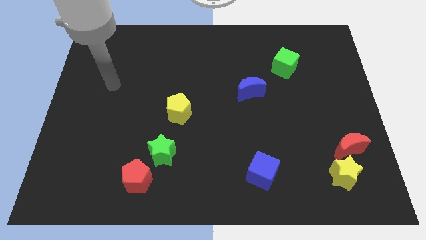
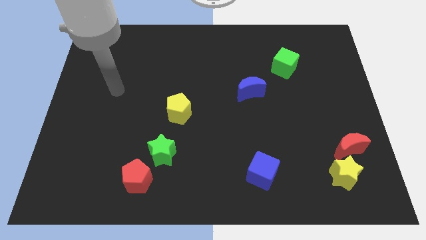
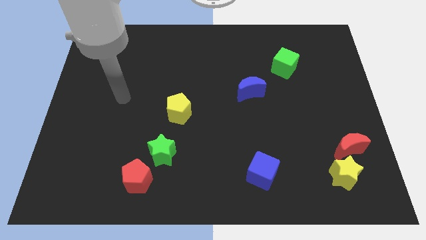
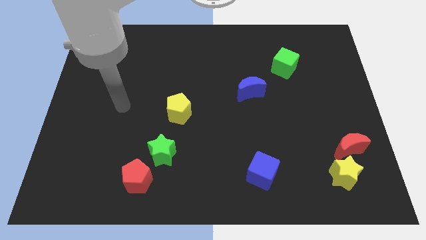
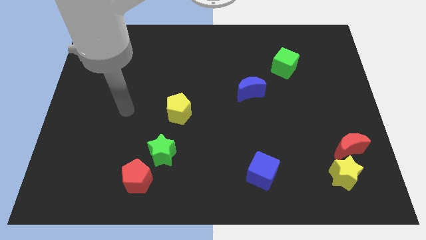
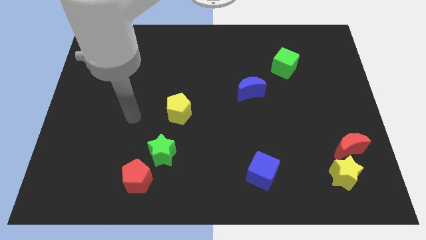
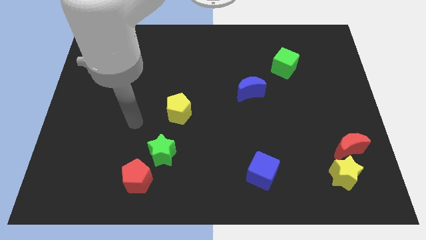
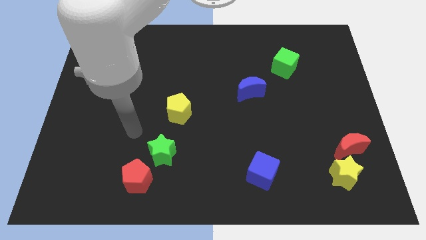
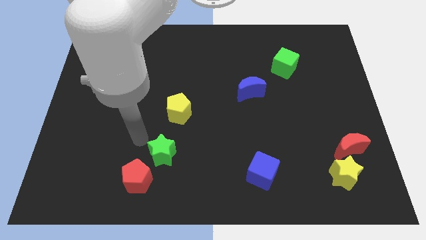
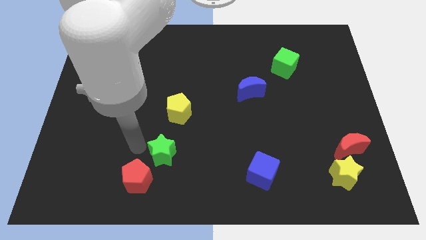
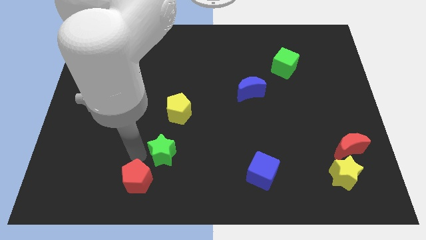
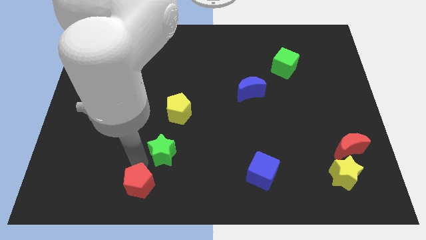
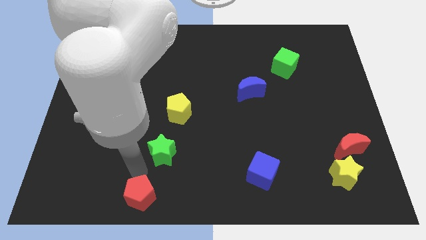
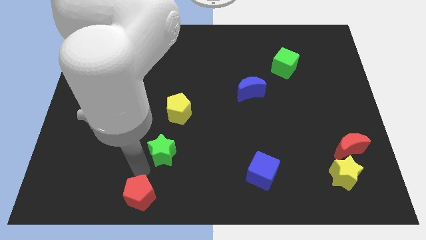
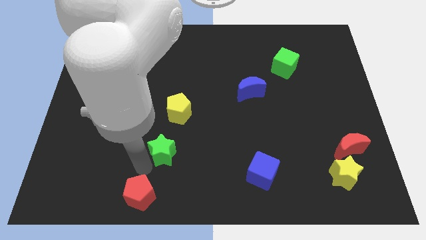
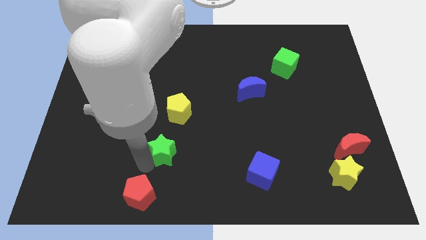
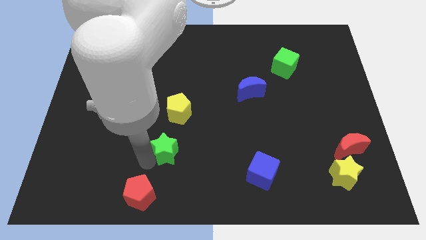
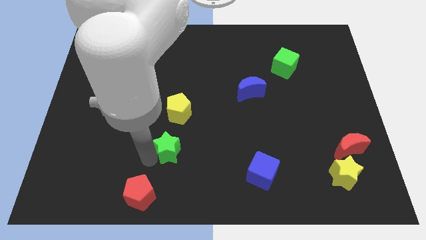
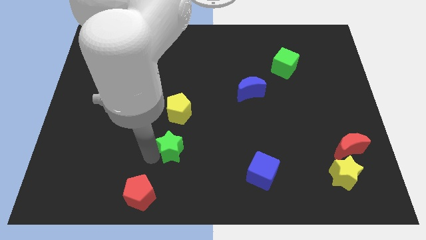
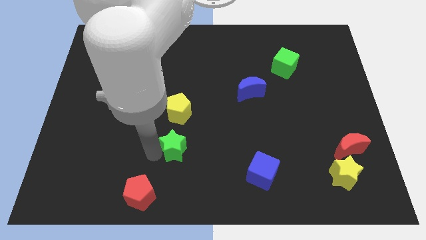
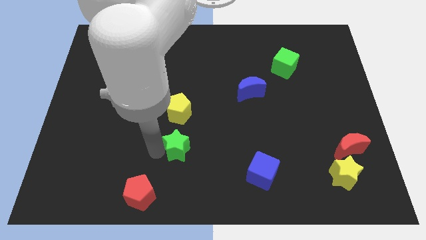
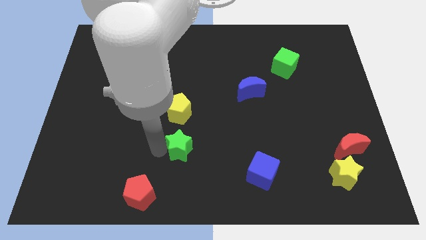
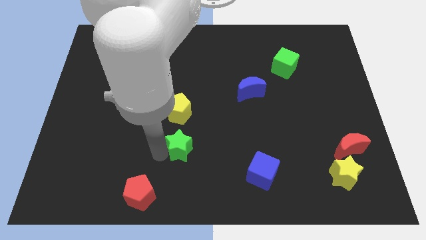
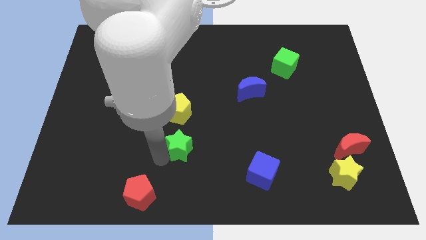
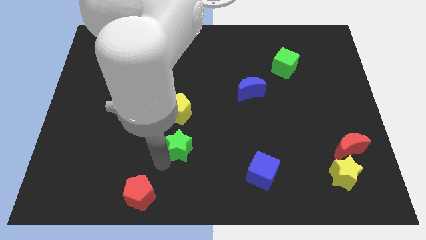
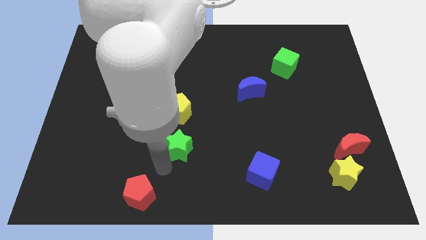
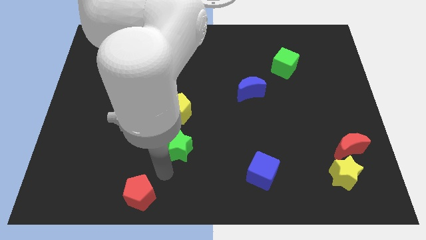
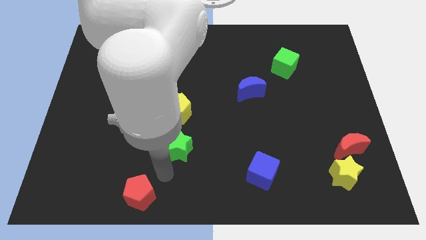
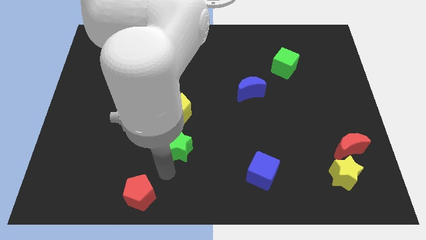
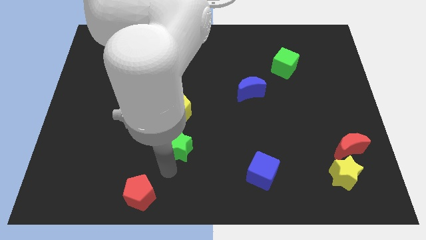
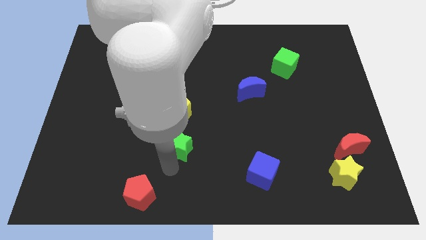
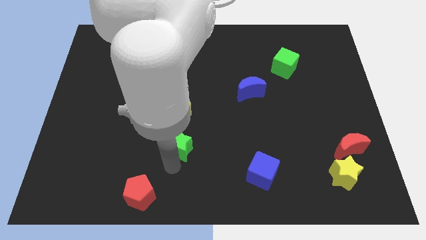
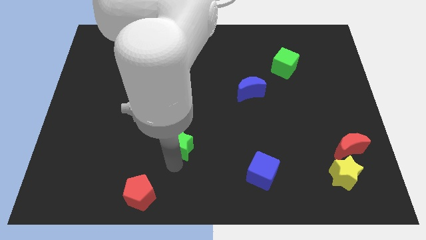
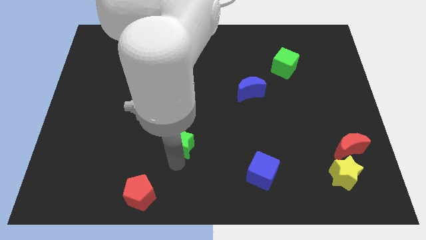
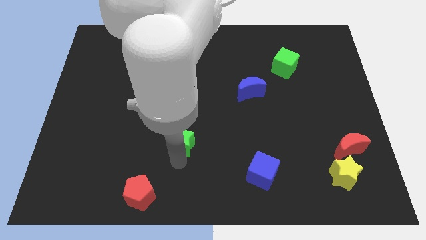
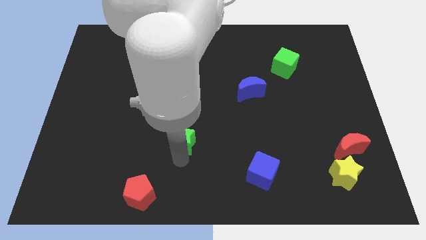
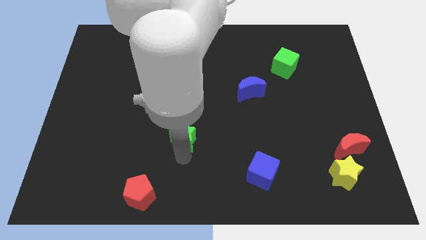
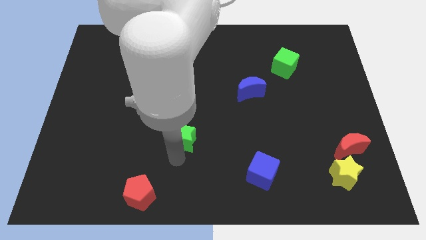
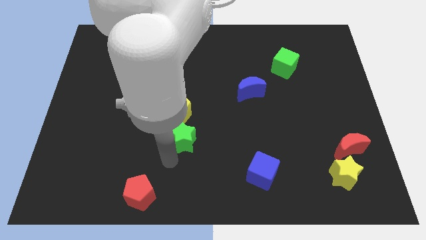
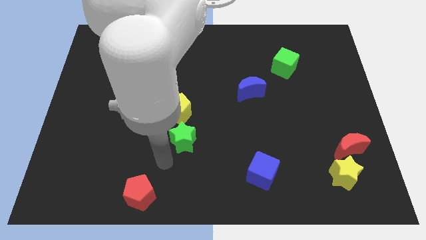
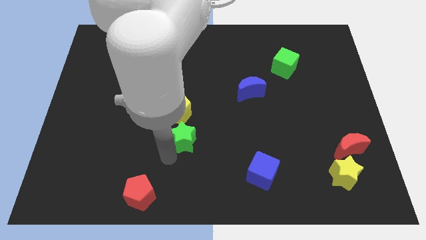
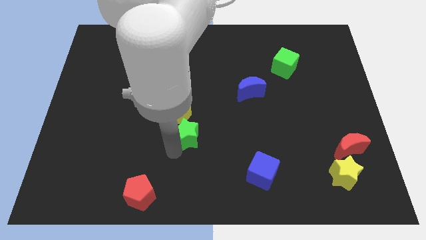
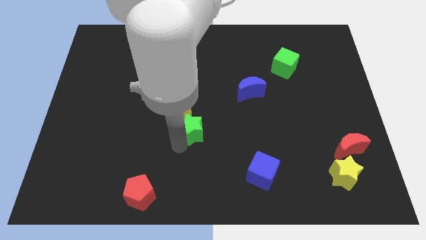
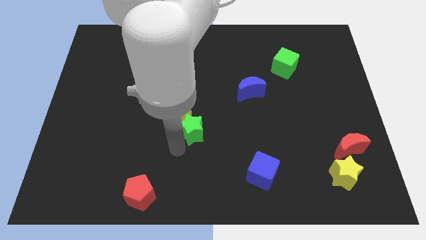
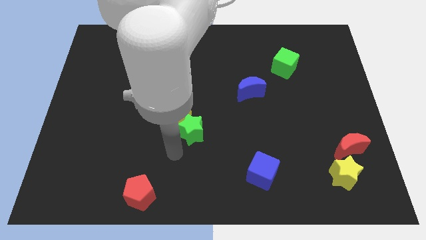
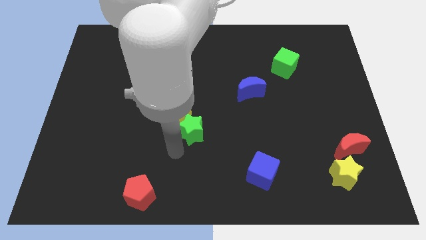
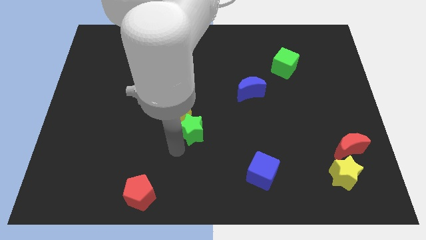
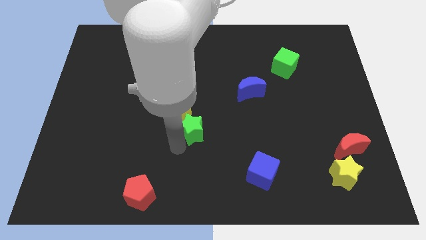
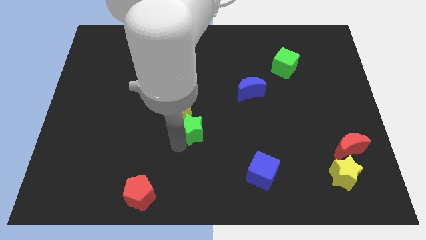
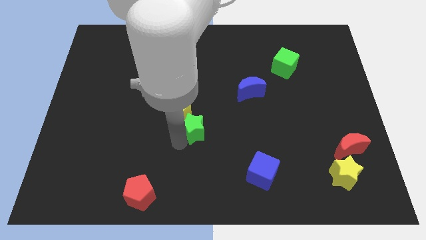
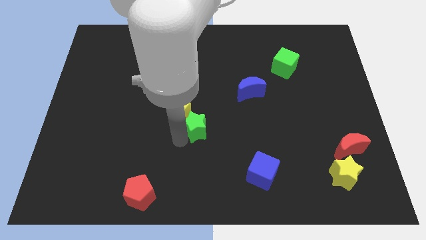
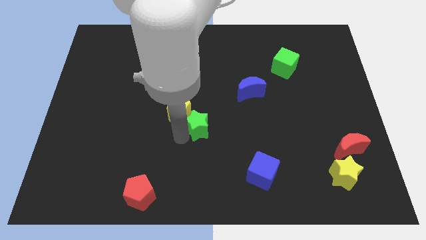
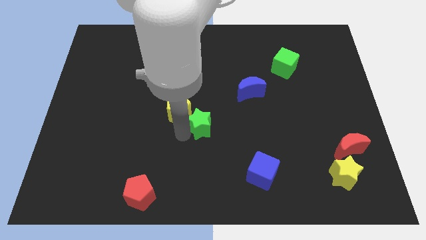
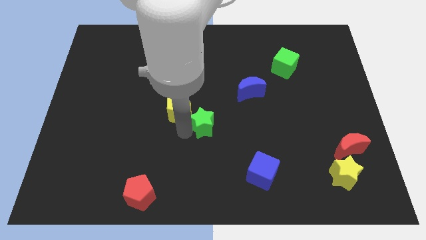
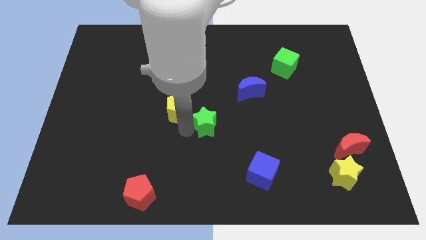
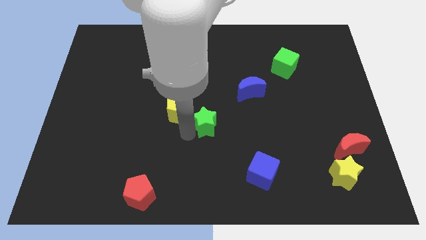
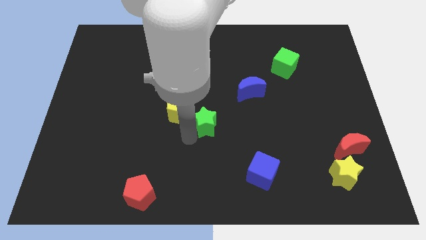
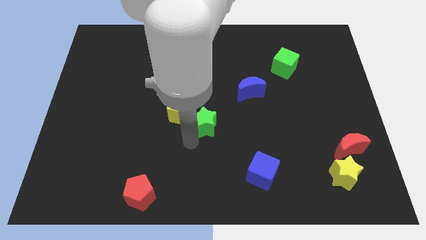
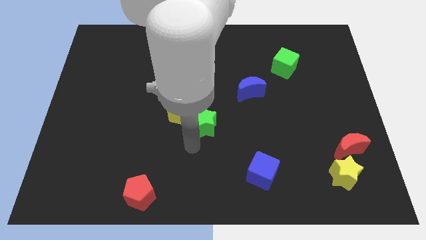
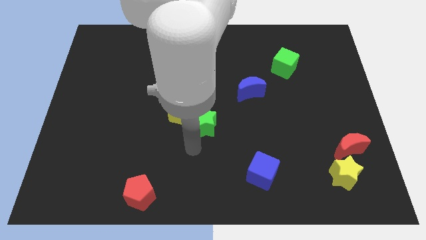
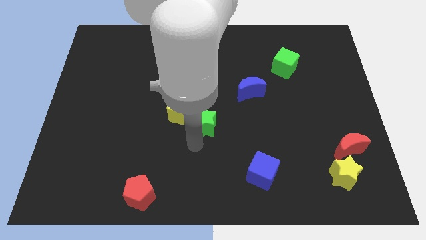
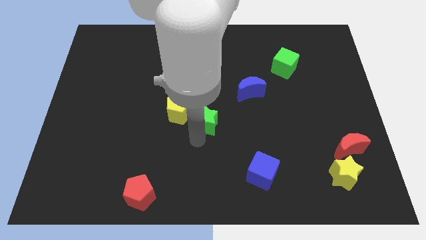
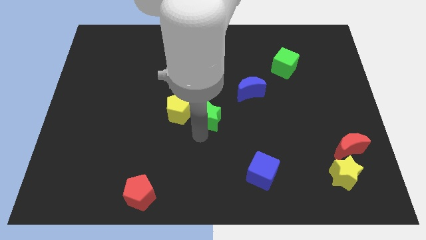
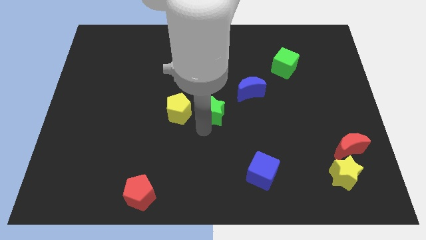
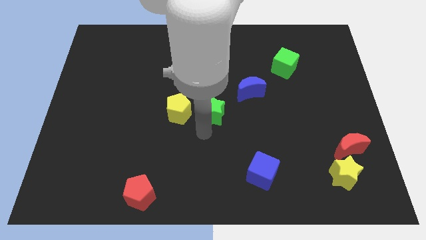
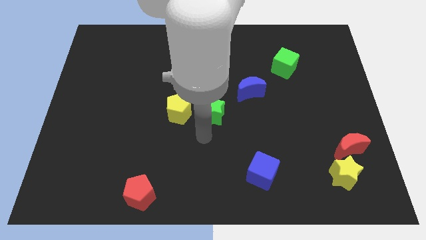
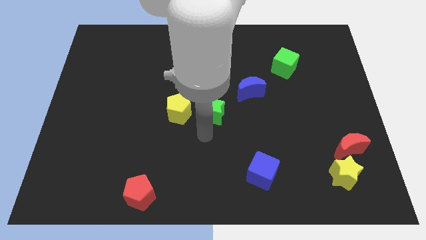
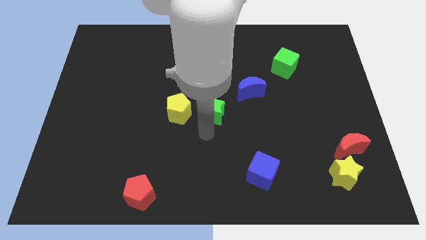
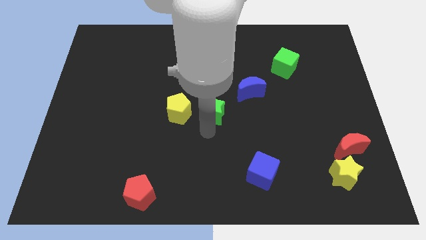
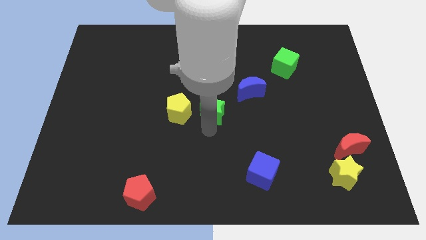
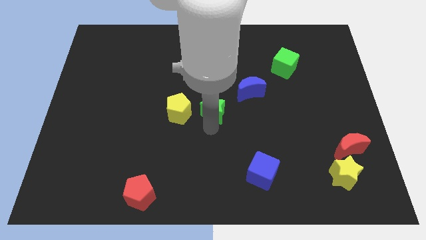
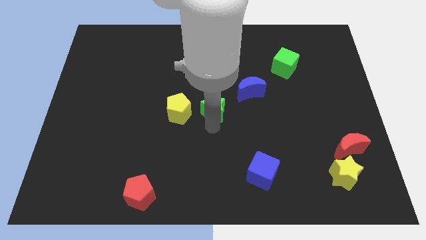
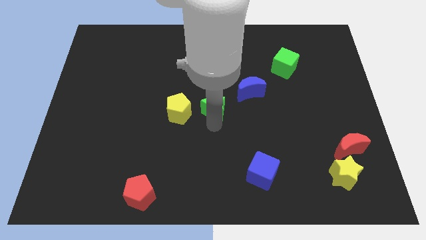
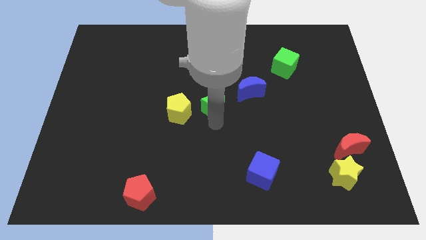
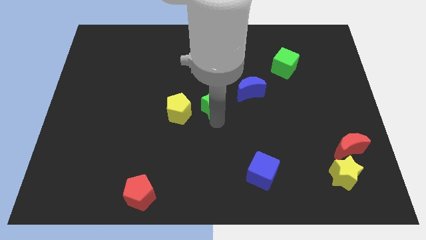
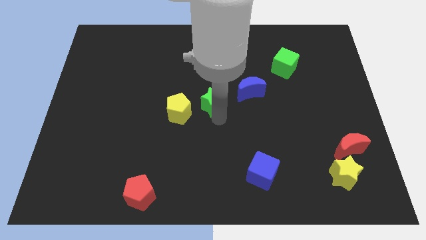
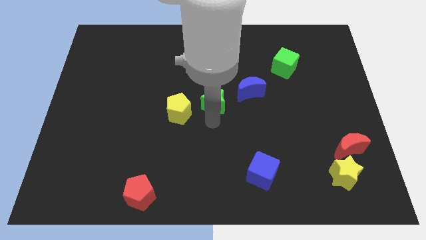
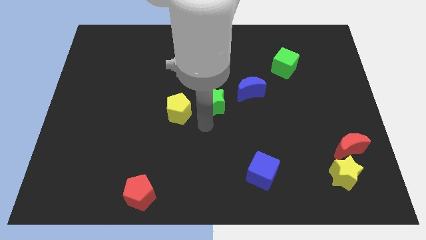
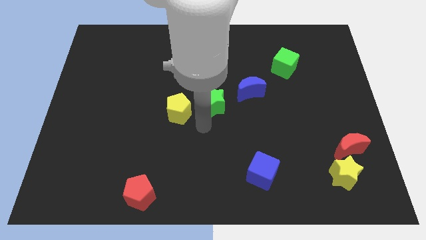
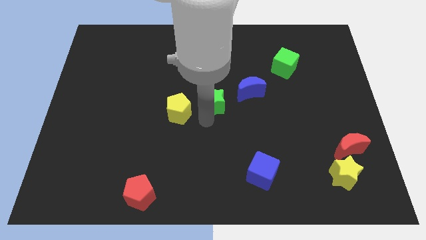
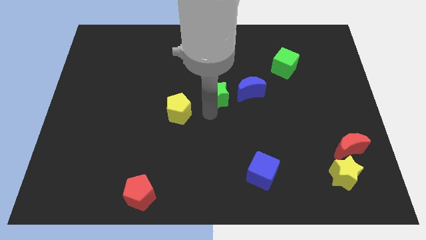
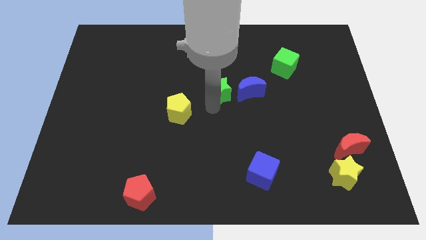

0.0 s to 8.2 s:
slide the green star up and then to the right
